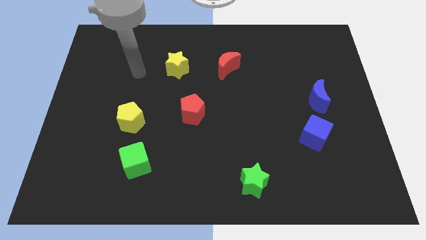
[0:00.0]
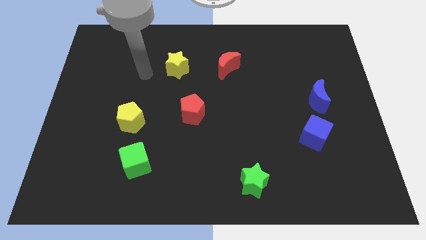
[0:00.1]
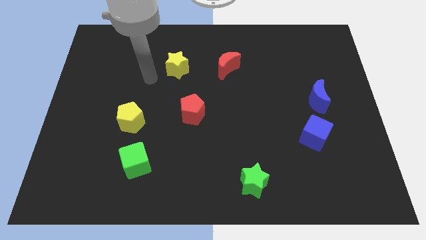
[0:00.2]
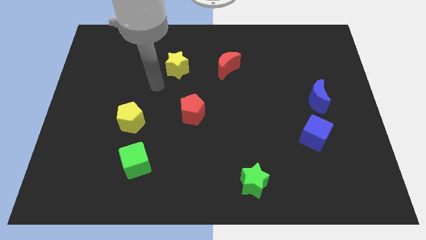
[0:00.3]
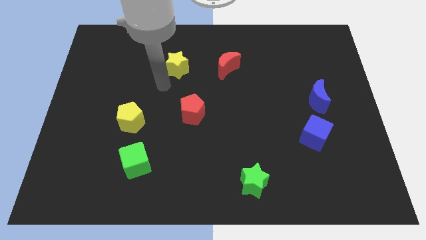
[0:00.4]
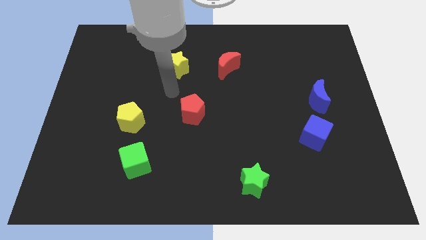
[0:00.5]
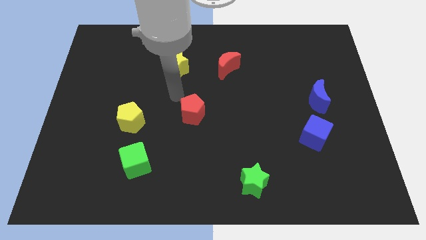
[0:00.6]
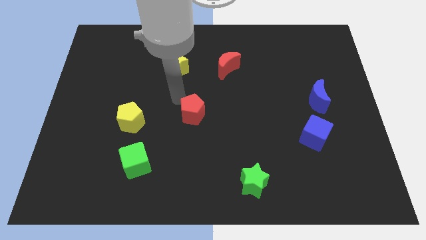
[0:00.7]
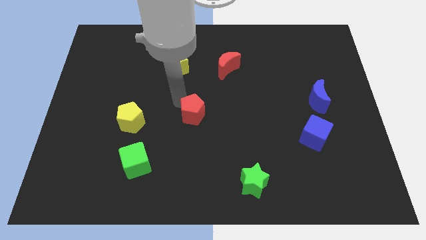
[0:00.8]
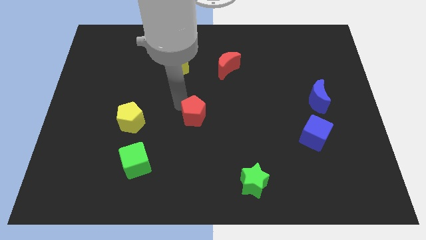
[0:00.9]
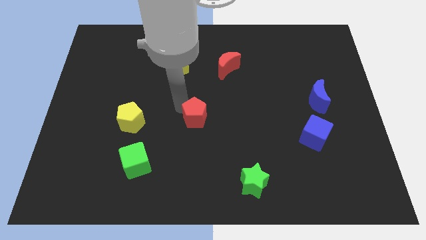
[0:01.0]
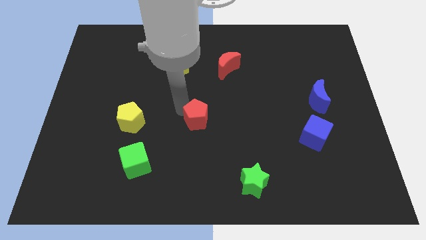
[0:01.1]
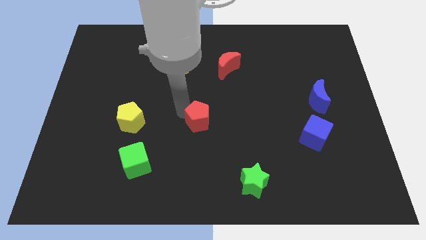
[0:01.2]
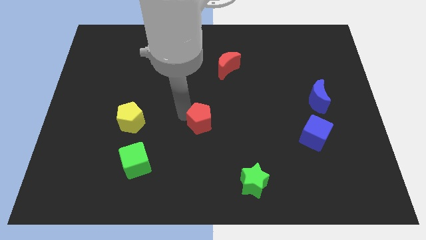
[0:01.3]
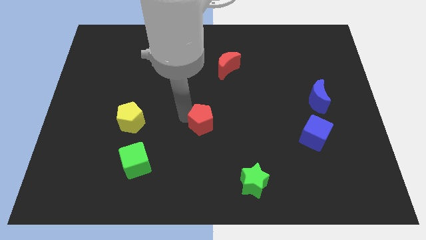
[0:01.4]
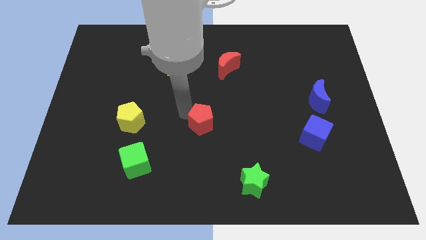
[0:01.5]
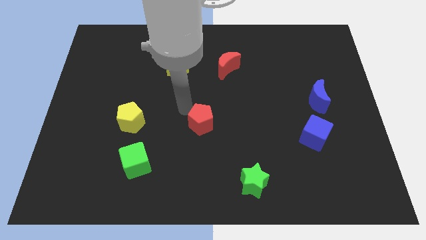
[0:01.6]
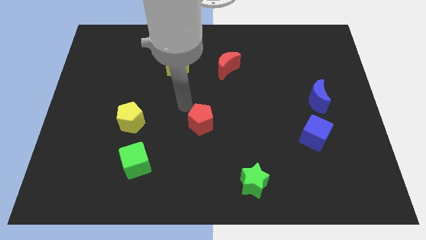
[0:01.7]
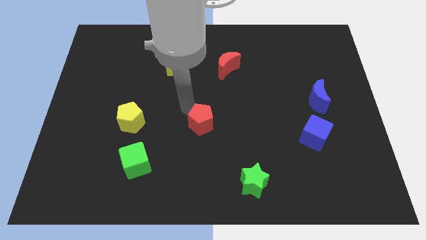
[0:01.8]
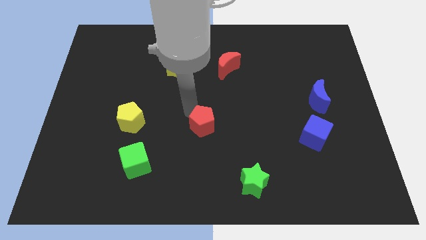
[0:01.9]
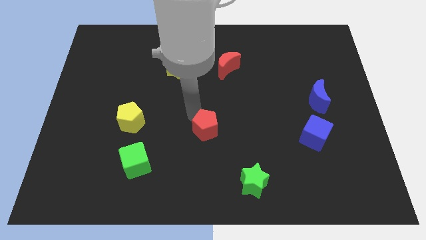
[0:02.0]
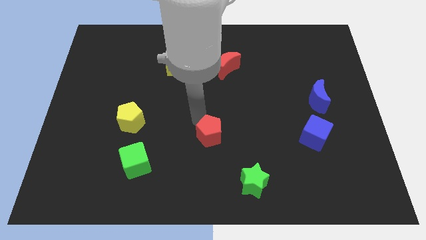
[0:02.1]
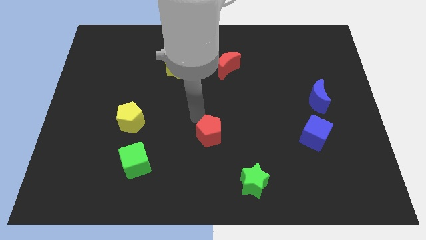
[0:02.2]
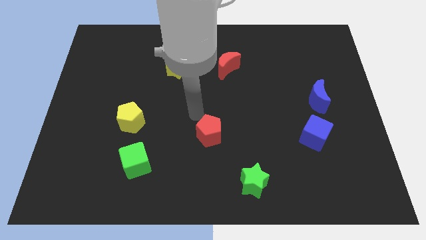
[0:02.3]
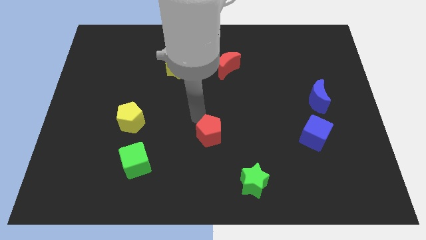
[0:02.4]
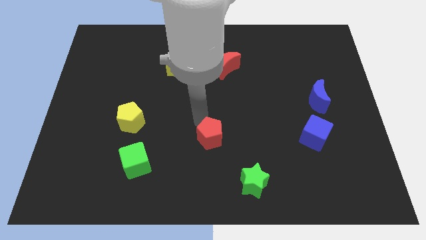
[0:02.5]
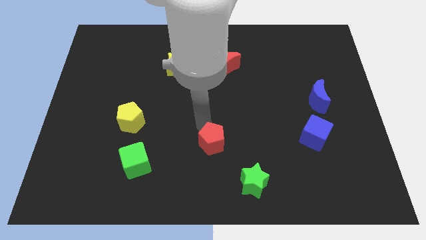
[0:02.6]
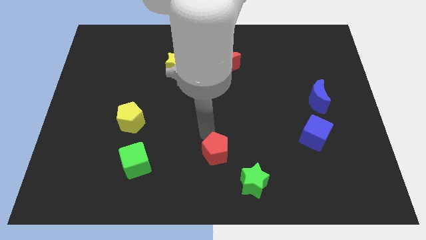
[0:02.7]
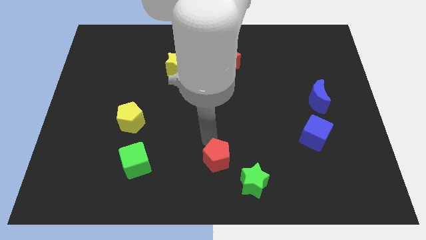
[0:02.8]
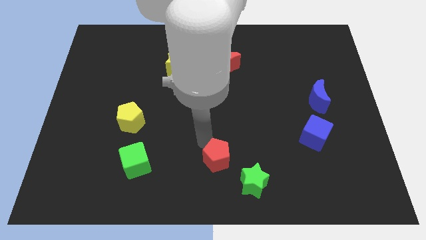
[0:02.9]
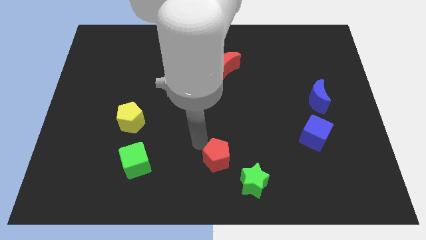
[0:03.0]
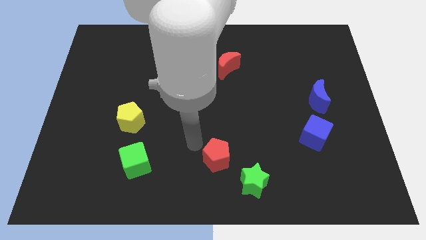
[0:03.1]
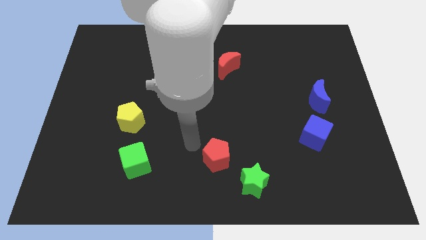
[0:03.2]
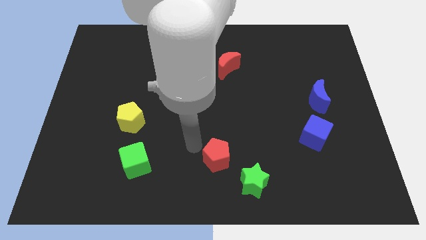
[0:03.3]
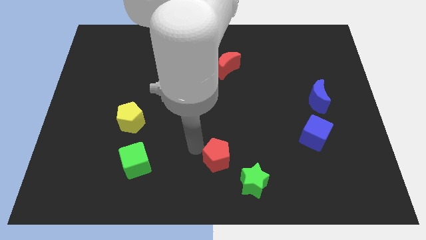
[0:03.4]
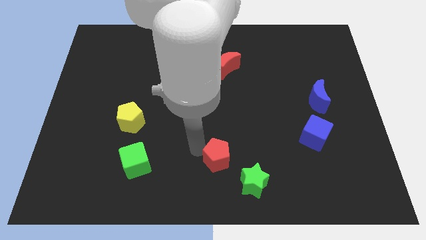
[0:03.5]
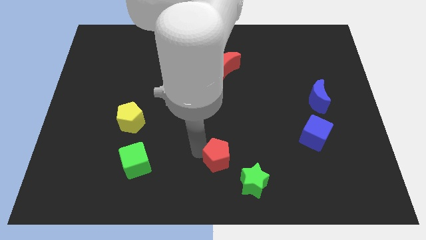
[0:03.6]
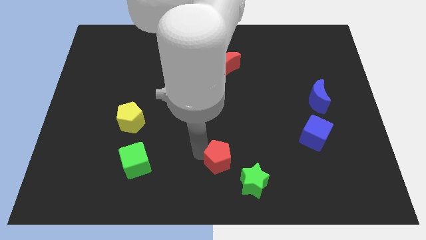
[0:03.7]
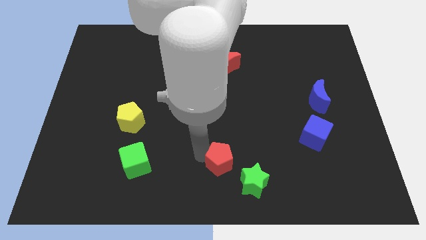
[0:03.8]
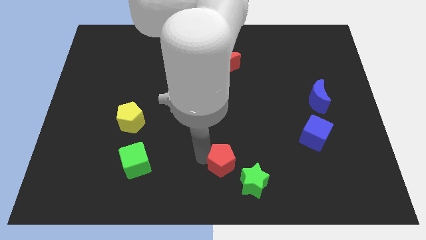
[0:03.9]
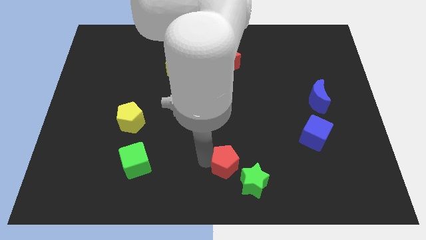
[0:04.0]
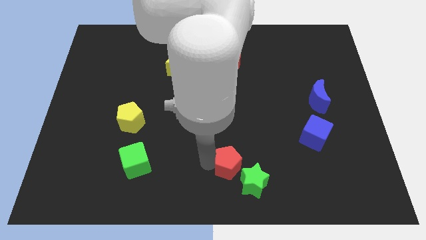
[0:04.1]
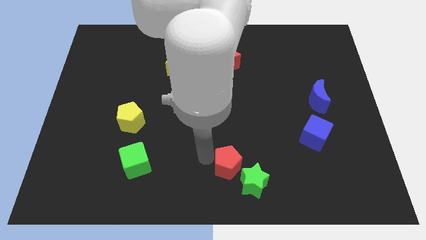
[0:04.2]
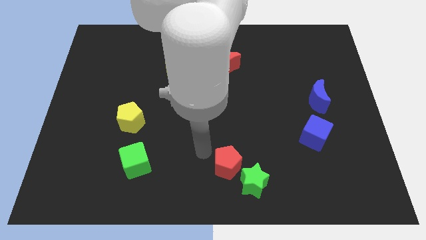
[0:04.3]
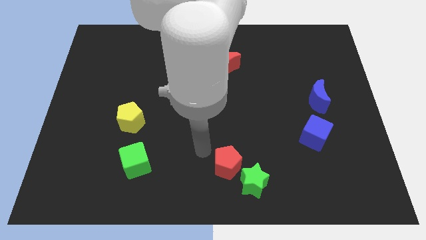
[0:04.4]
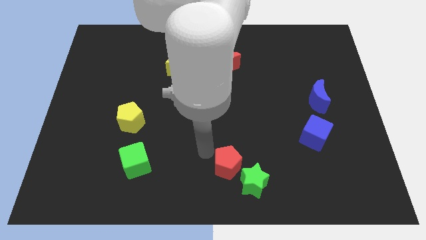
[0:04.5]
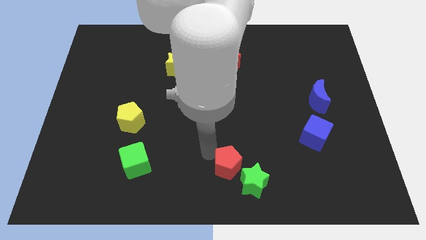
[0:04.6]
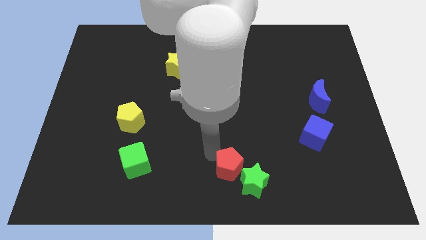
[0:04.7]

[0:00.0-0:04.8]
push the red pentagon next to the green star

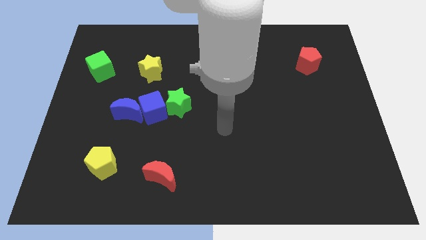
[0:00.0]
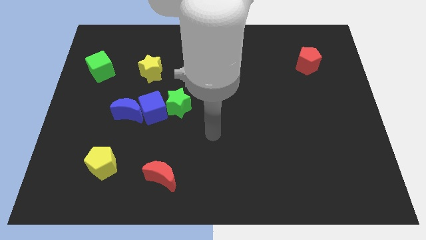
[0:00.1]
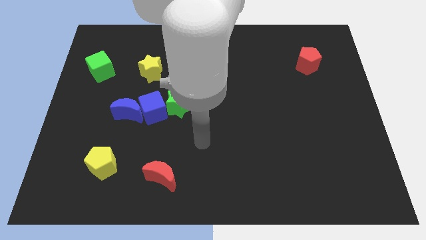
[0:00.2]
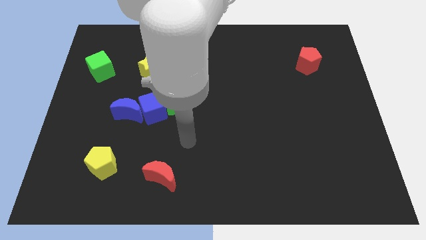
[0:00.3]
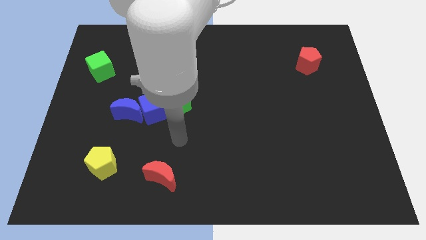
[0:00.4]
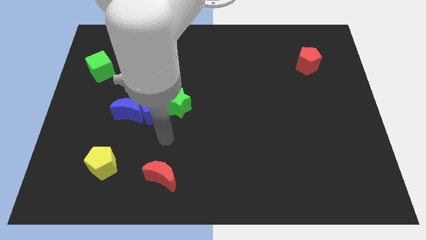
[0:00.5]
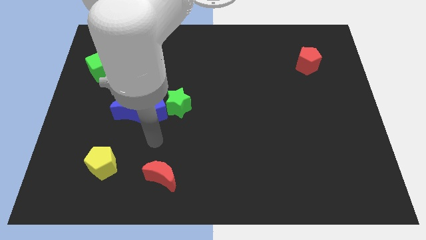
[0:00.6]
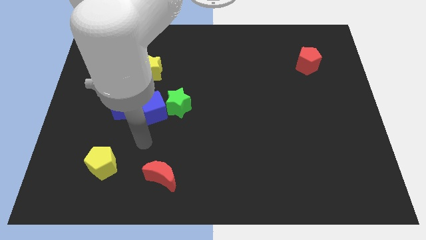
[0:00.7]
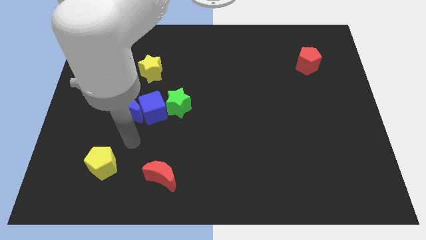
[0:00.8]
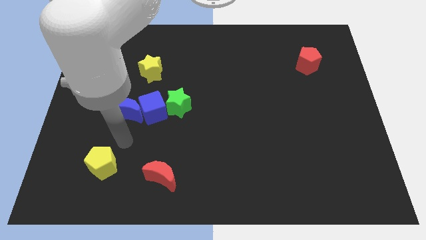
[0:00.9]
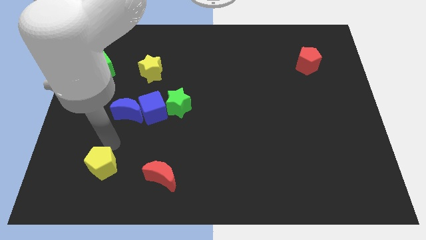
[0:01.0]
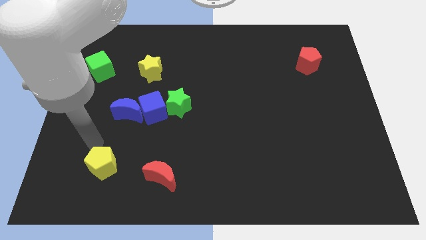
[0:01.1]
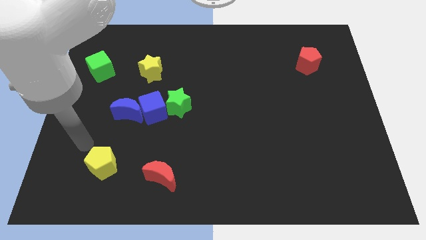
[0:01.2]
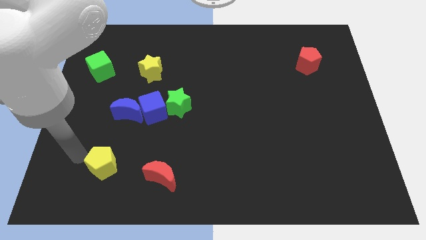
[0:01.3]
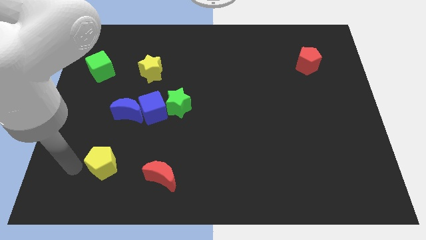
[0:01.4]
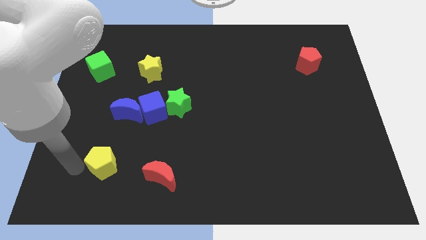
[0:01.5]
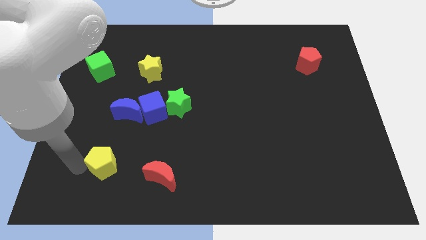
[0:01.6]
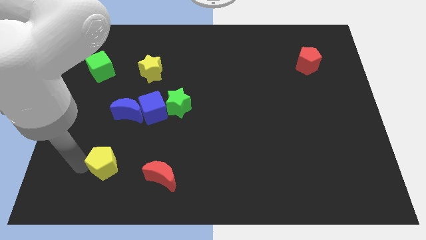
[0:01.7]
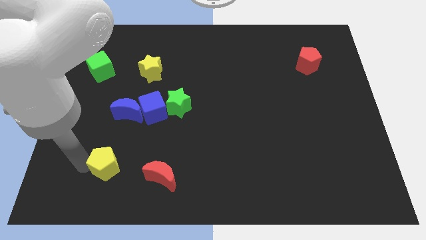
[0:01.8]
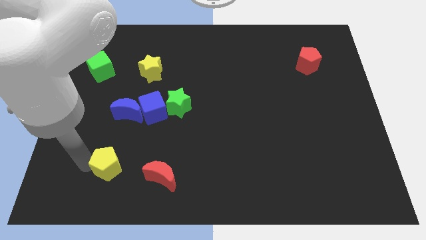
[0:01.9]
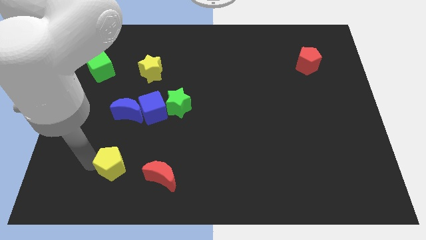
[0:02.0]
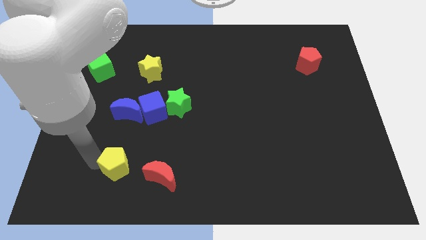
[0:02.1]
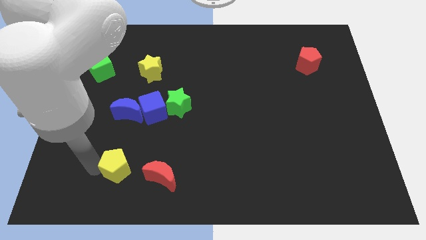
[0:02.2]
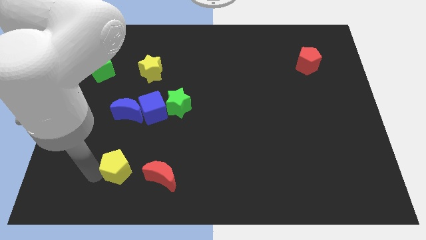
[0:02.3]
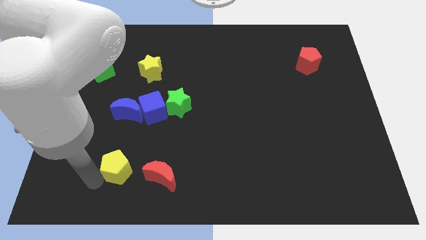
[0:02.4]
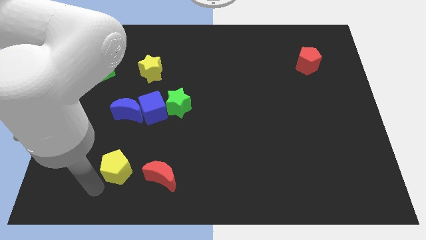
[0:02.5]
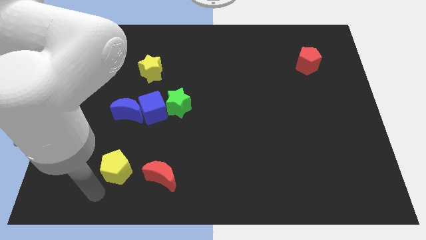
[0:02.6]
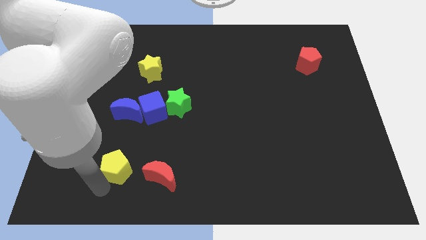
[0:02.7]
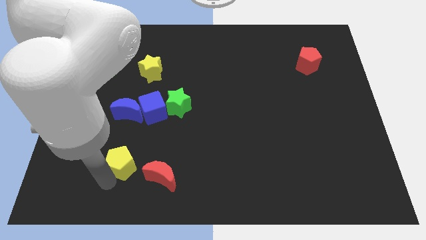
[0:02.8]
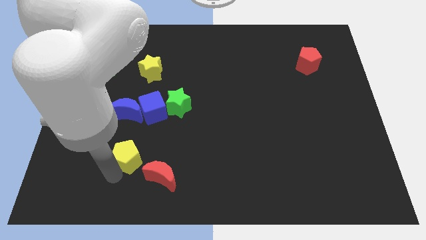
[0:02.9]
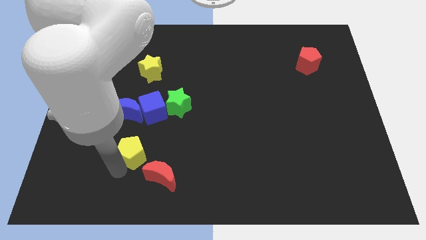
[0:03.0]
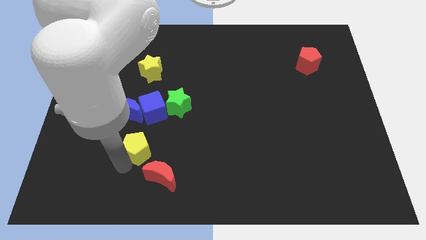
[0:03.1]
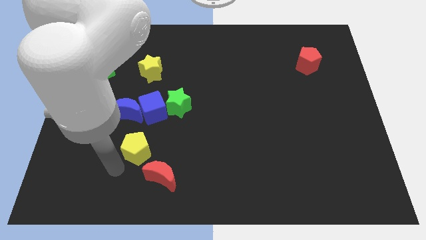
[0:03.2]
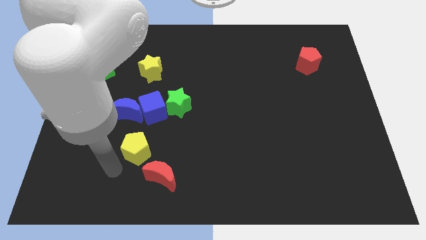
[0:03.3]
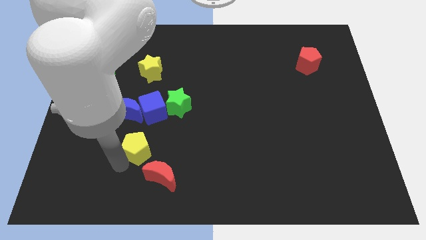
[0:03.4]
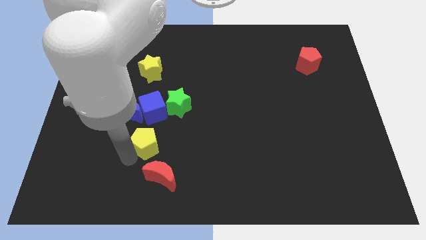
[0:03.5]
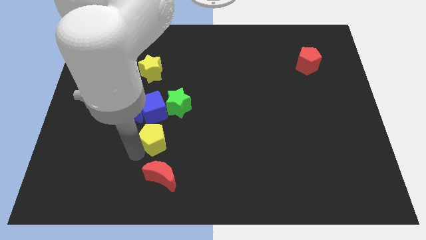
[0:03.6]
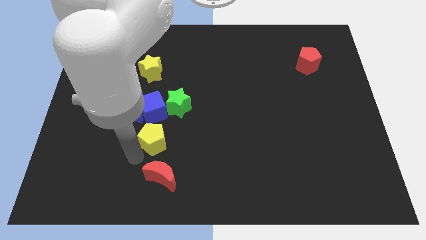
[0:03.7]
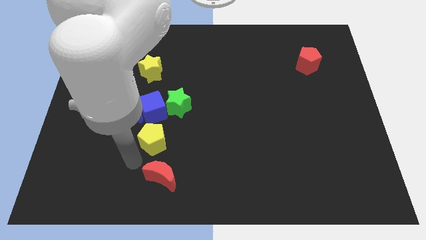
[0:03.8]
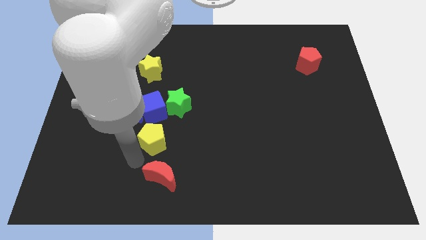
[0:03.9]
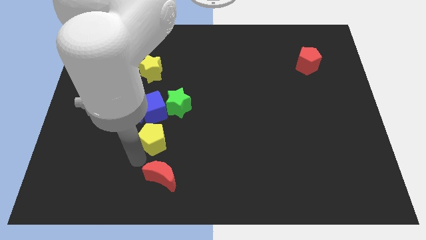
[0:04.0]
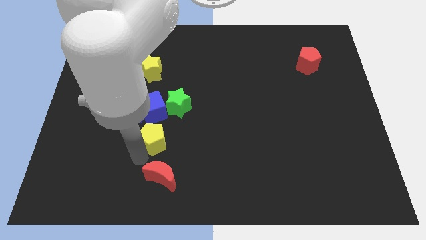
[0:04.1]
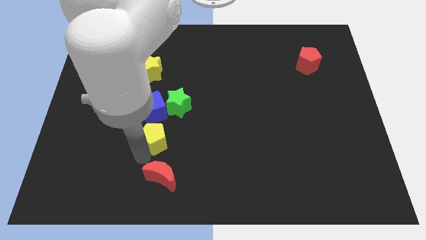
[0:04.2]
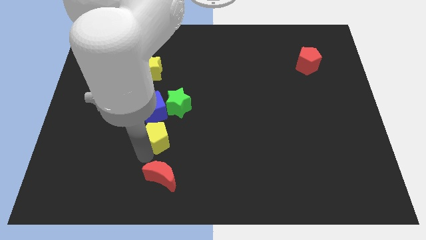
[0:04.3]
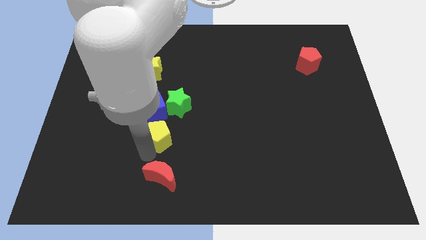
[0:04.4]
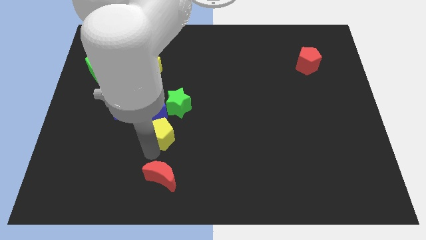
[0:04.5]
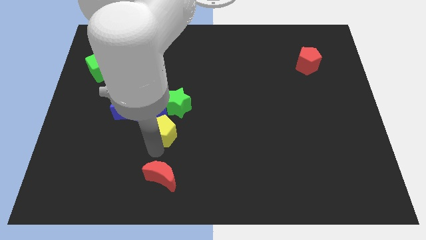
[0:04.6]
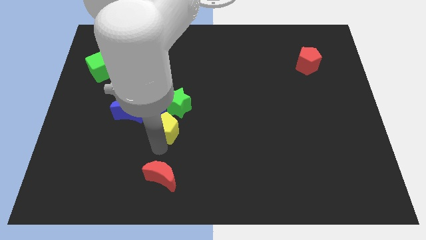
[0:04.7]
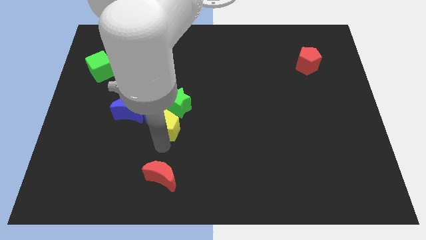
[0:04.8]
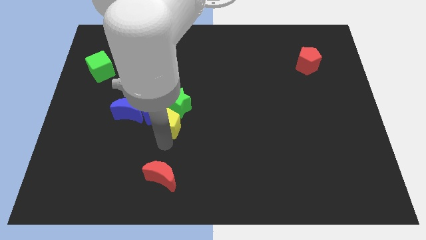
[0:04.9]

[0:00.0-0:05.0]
push the yellow pentagon close to the green star
